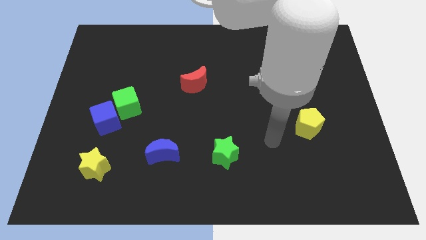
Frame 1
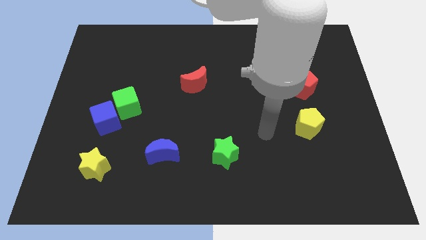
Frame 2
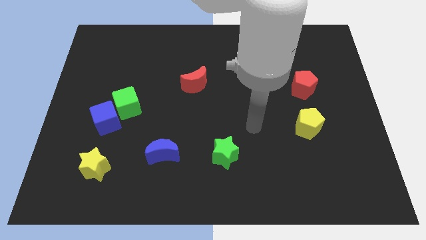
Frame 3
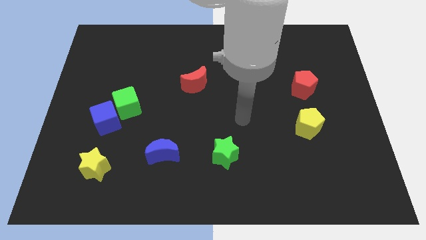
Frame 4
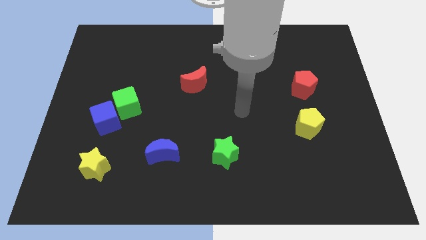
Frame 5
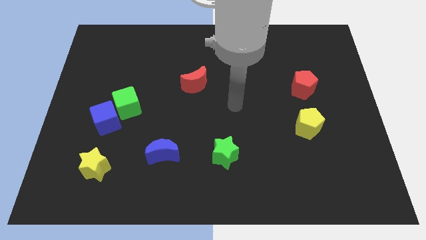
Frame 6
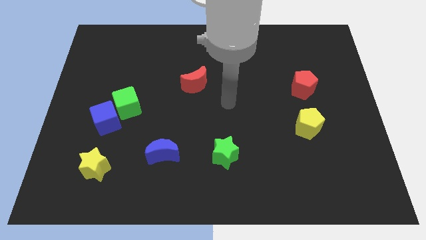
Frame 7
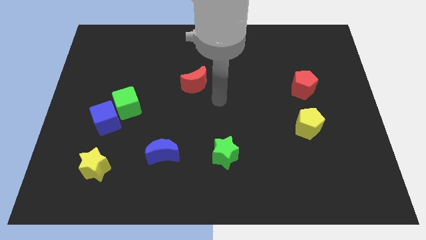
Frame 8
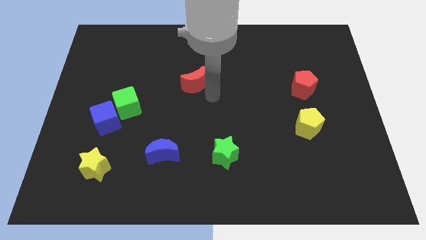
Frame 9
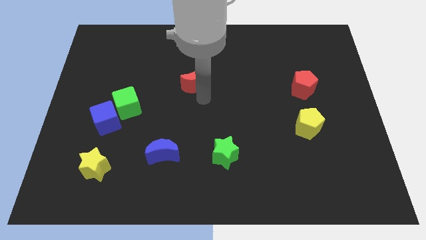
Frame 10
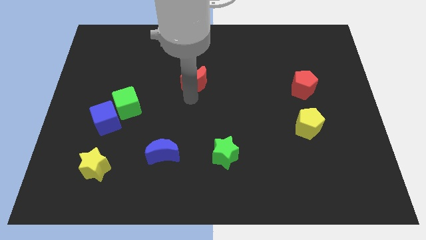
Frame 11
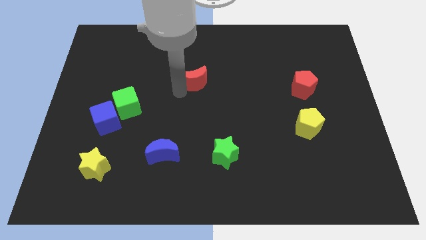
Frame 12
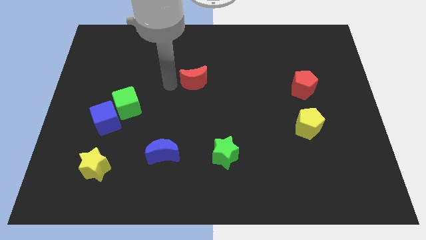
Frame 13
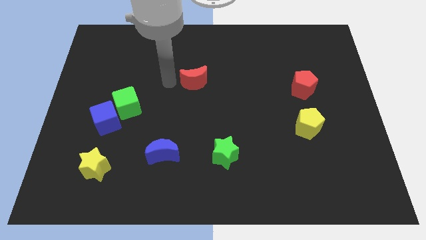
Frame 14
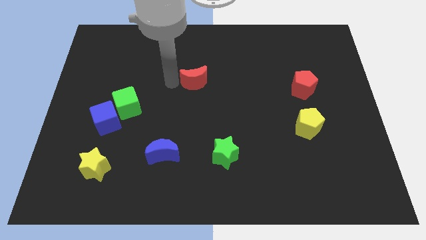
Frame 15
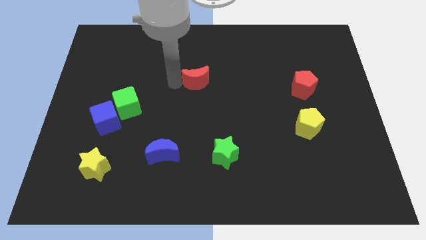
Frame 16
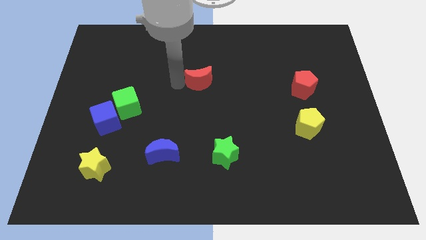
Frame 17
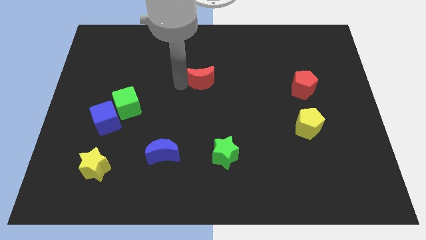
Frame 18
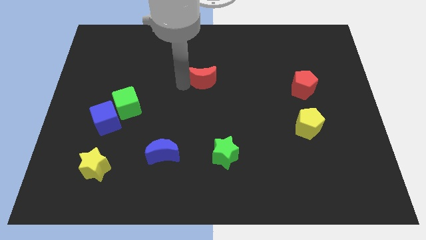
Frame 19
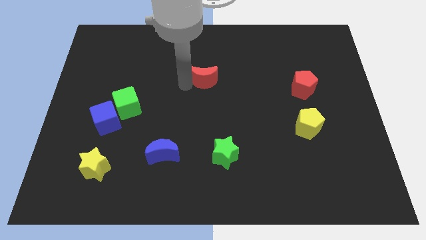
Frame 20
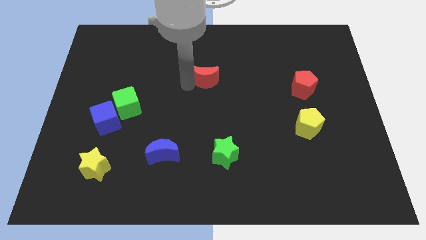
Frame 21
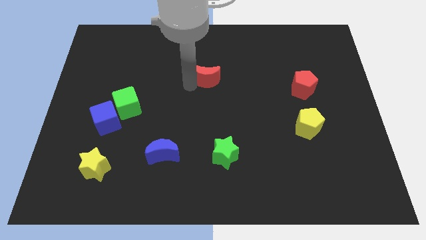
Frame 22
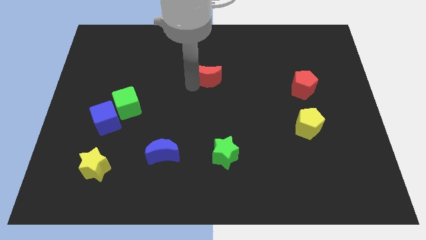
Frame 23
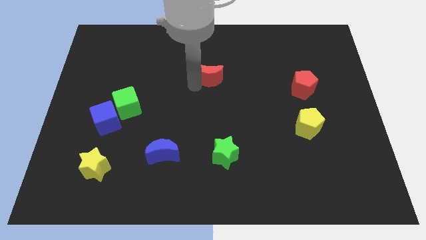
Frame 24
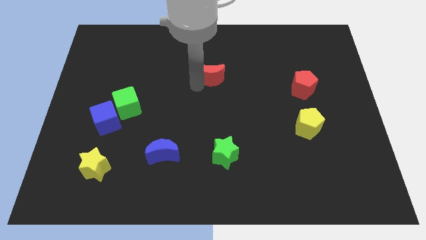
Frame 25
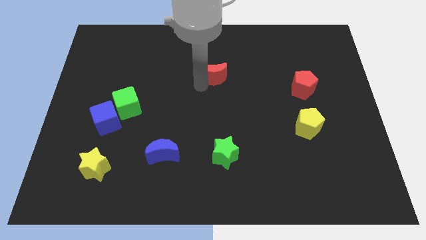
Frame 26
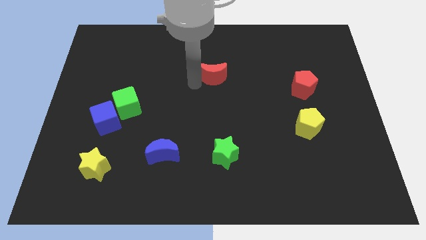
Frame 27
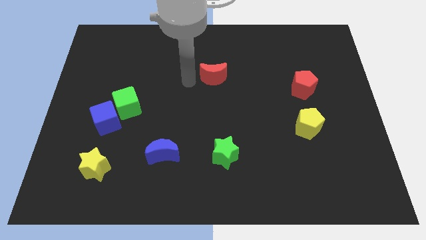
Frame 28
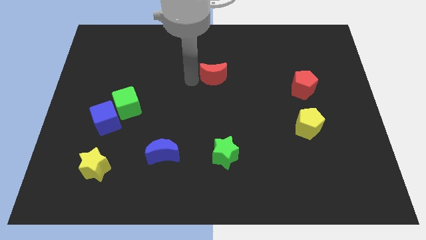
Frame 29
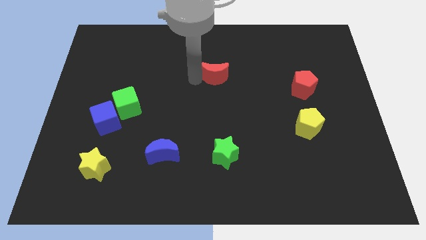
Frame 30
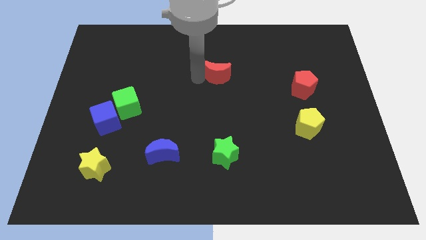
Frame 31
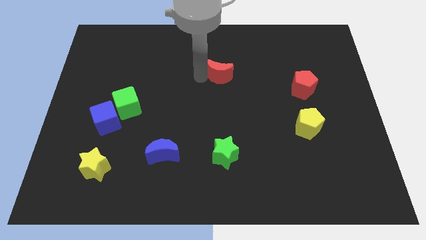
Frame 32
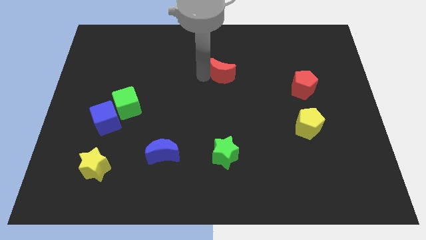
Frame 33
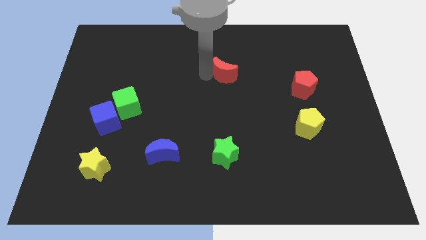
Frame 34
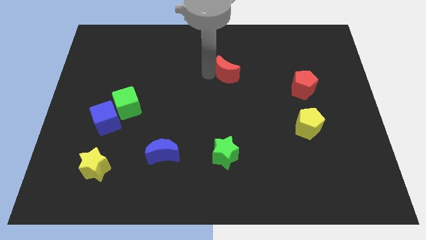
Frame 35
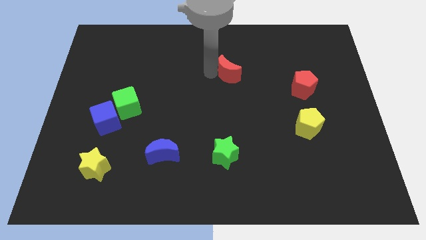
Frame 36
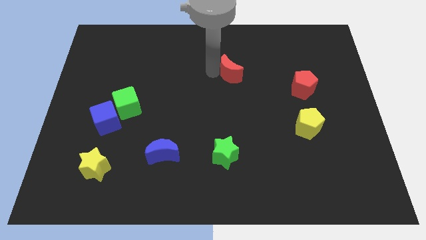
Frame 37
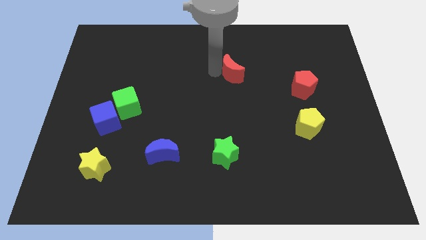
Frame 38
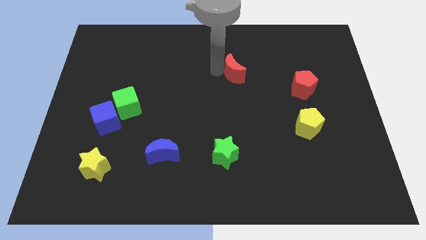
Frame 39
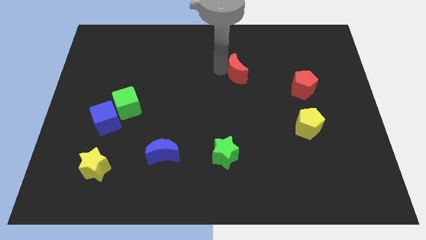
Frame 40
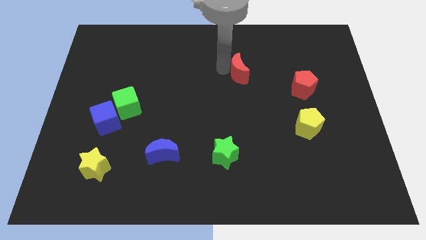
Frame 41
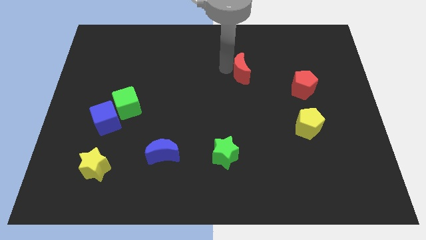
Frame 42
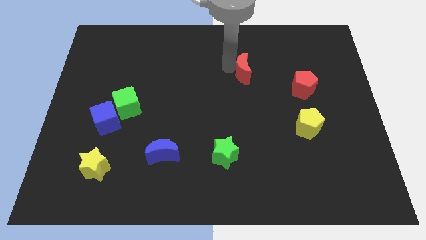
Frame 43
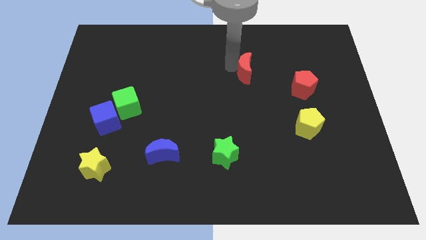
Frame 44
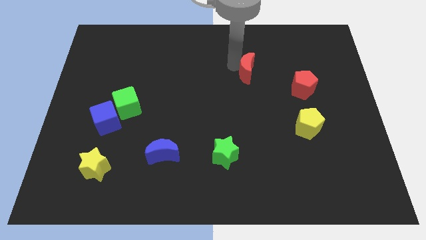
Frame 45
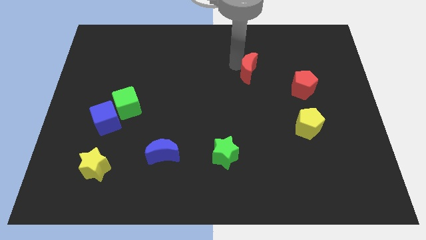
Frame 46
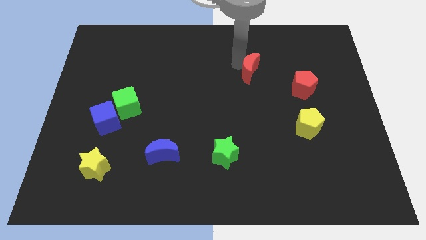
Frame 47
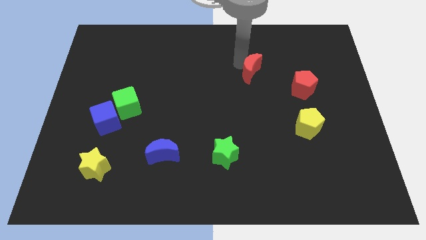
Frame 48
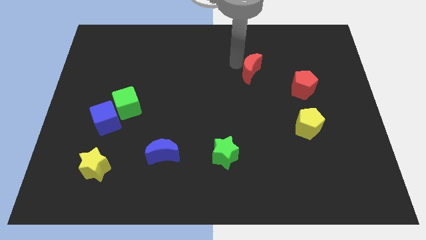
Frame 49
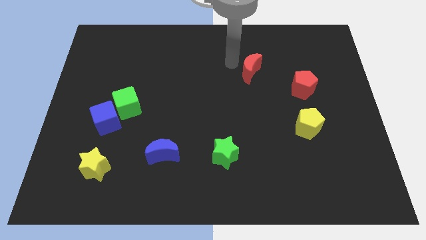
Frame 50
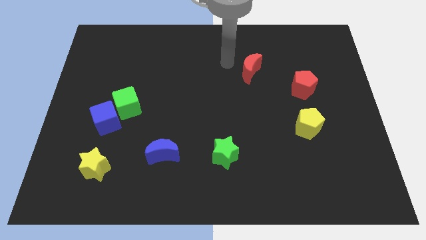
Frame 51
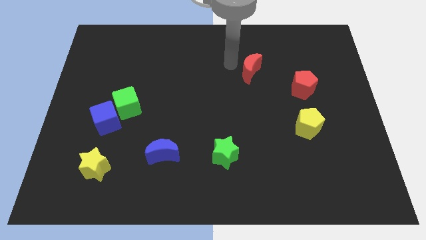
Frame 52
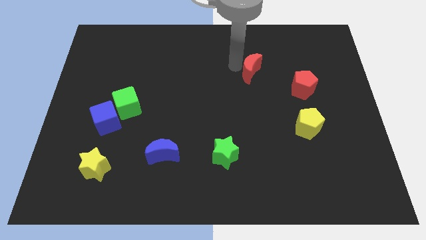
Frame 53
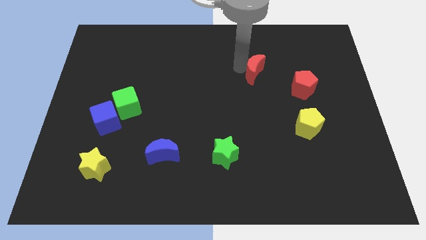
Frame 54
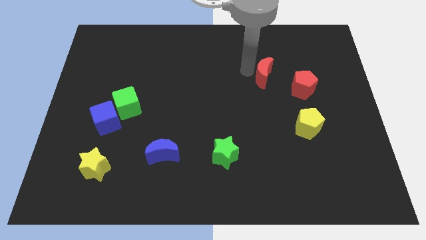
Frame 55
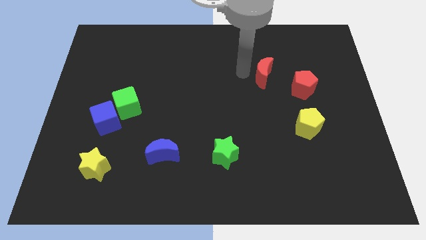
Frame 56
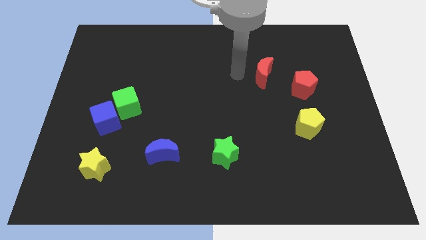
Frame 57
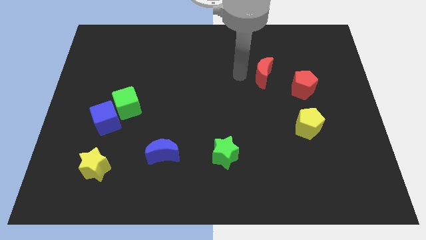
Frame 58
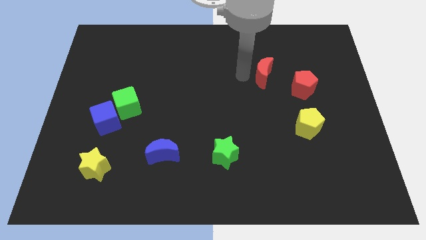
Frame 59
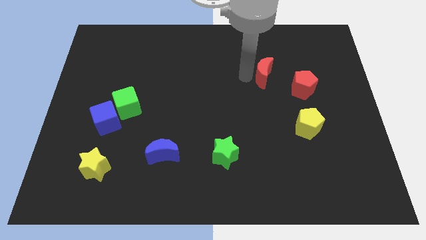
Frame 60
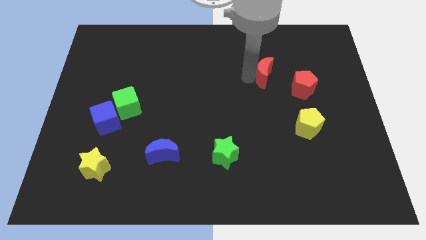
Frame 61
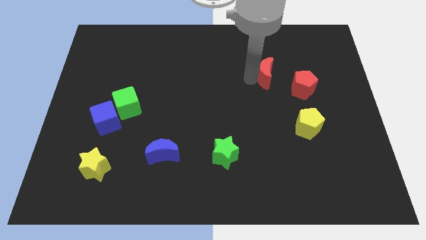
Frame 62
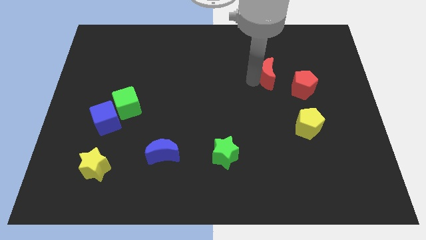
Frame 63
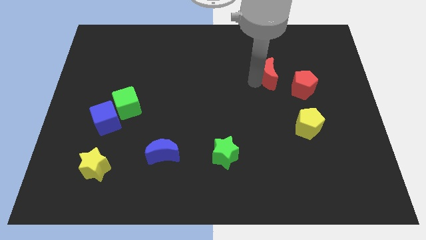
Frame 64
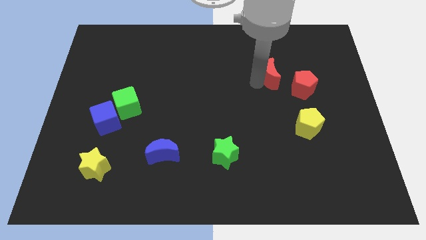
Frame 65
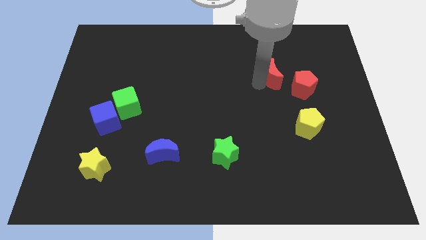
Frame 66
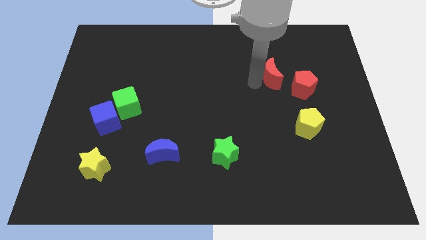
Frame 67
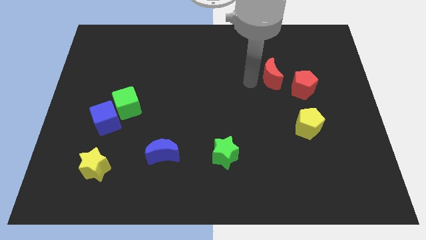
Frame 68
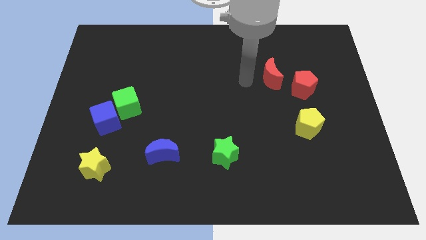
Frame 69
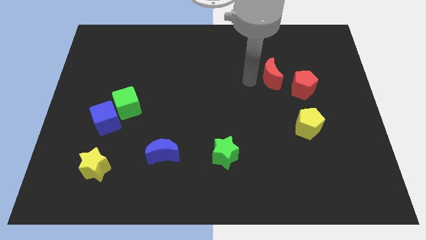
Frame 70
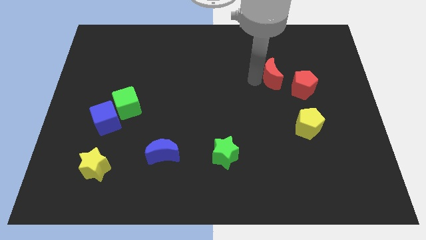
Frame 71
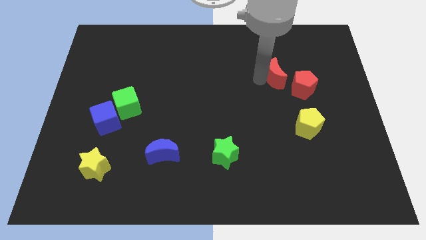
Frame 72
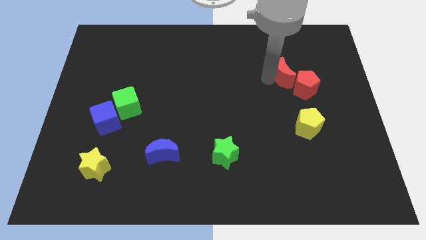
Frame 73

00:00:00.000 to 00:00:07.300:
push the red moon to the right

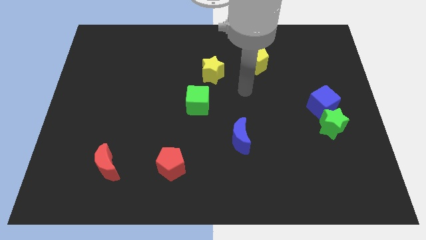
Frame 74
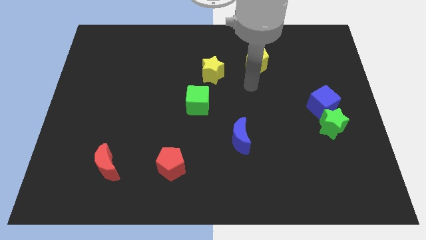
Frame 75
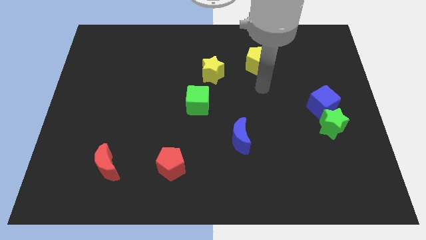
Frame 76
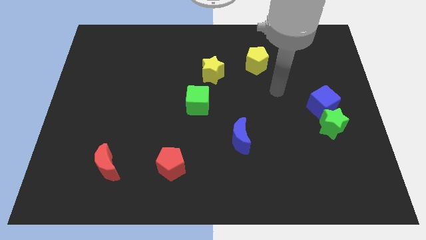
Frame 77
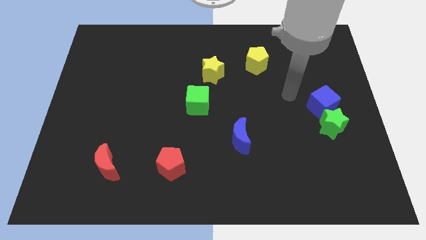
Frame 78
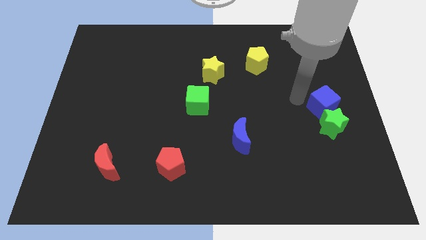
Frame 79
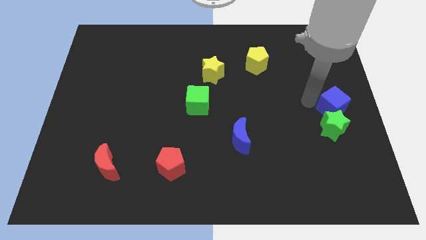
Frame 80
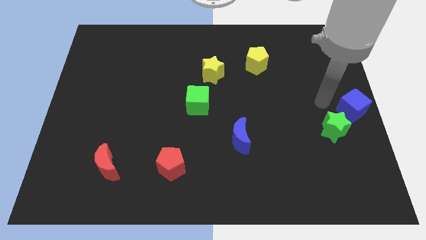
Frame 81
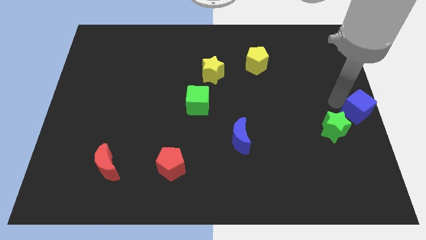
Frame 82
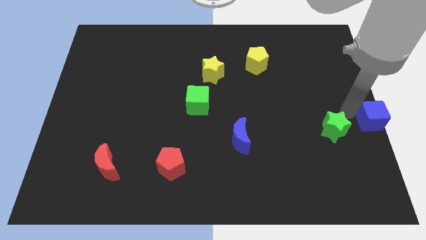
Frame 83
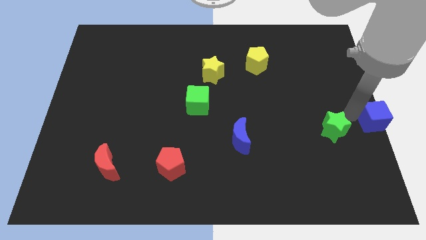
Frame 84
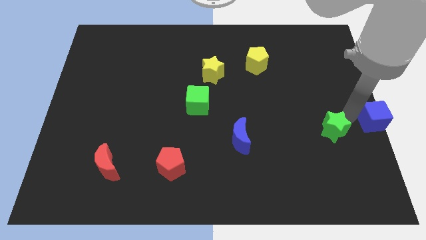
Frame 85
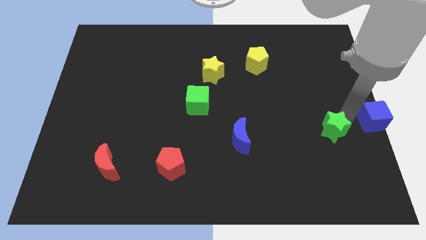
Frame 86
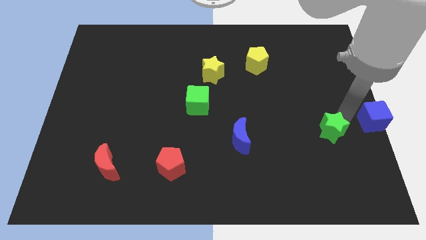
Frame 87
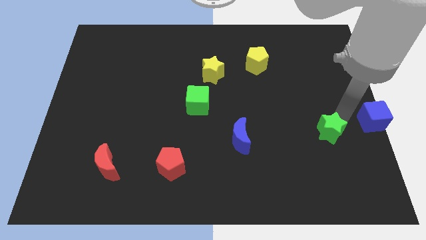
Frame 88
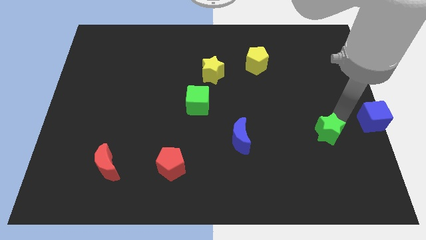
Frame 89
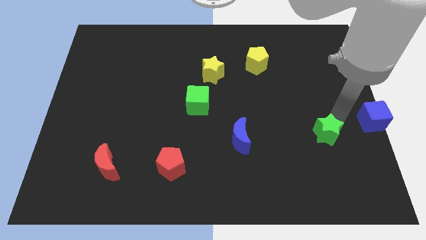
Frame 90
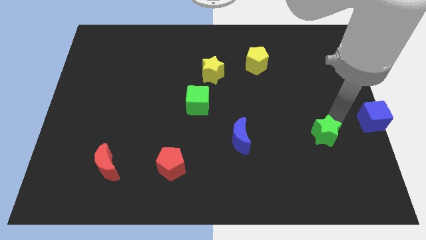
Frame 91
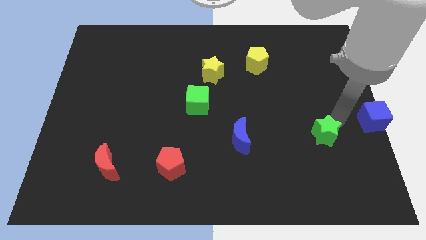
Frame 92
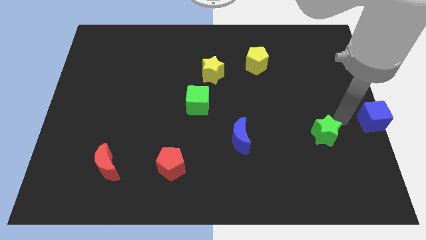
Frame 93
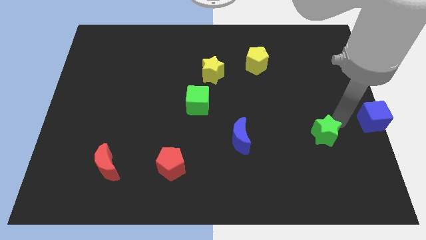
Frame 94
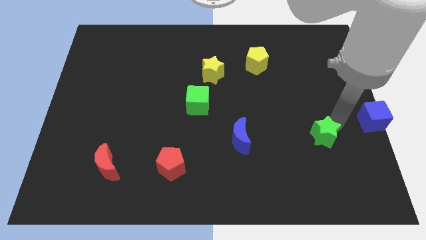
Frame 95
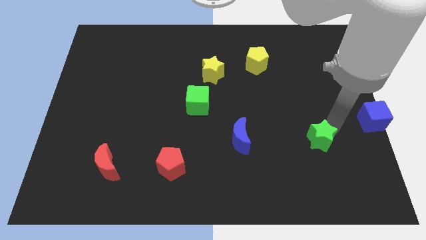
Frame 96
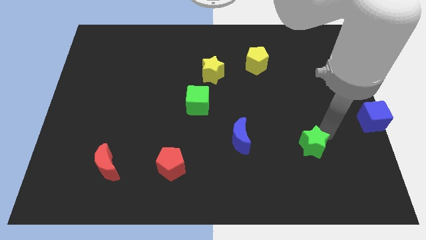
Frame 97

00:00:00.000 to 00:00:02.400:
move the green star a little downwards and left diagonally
